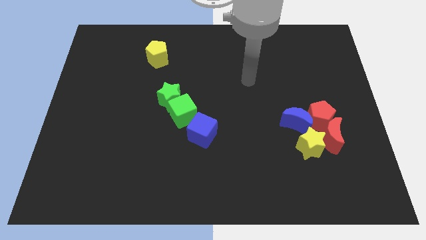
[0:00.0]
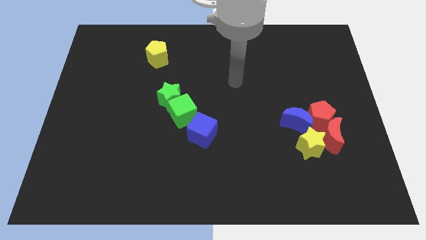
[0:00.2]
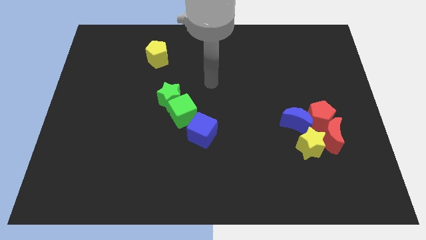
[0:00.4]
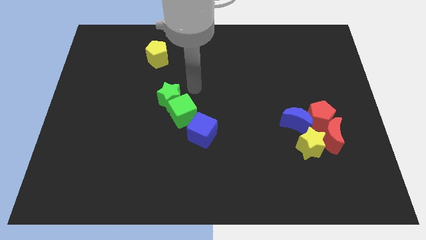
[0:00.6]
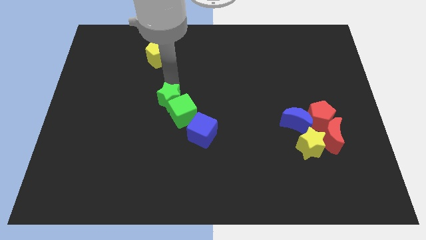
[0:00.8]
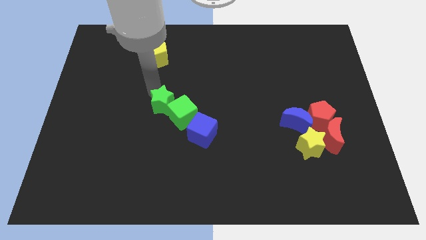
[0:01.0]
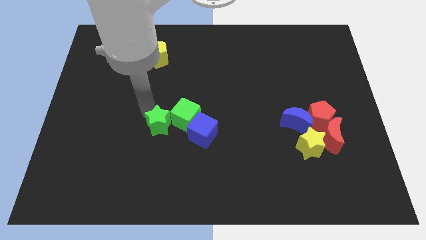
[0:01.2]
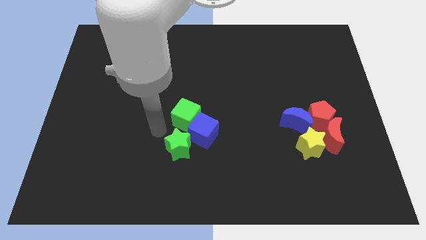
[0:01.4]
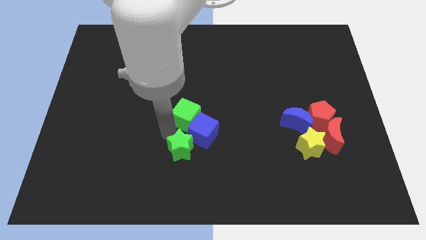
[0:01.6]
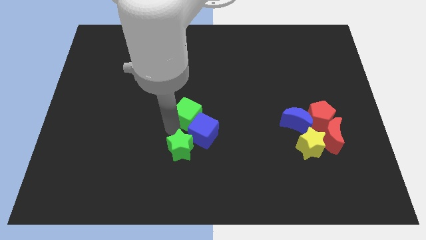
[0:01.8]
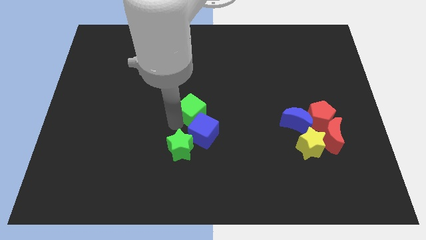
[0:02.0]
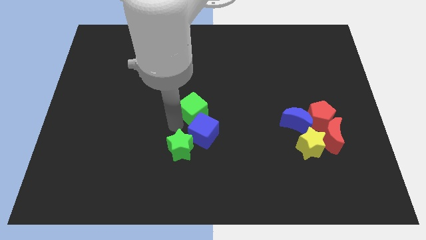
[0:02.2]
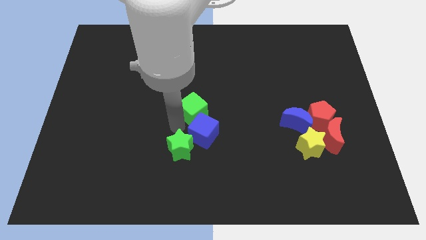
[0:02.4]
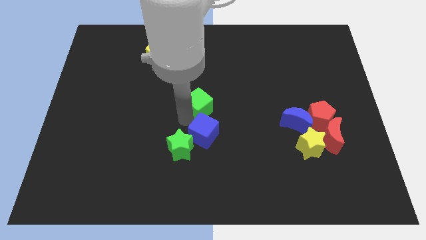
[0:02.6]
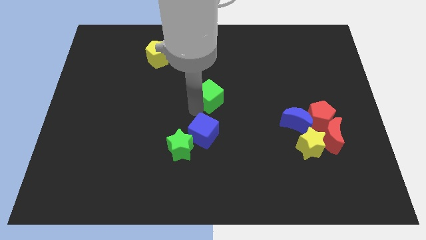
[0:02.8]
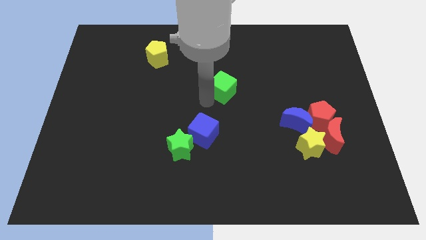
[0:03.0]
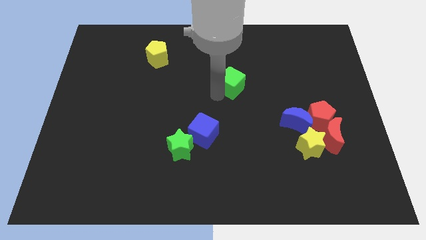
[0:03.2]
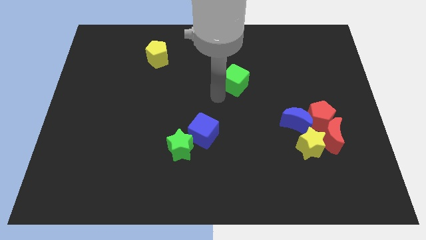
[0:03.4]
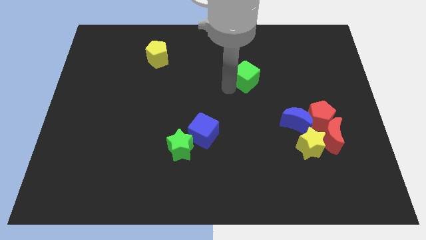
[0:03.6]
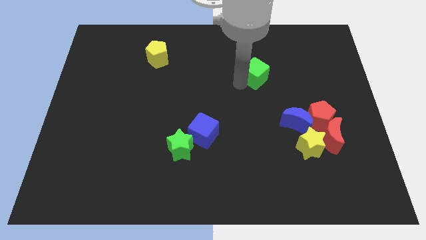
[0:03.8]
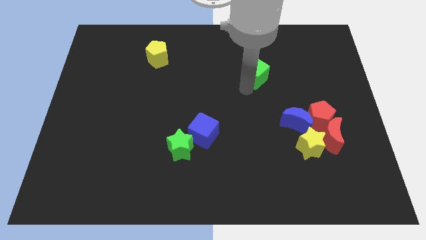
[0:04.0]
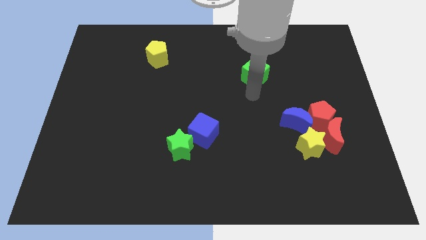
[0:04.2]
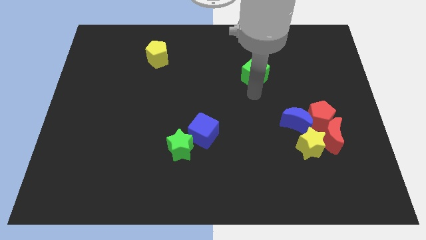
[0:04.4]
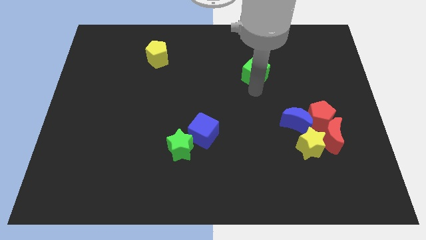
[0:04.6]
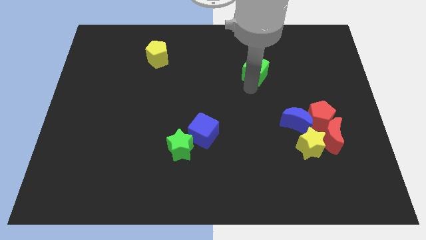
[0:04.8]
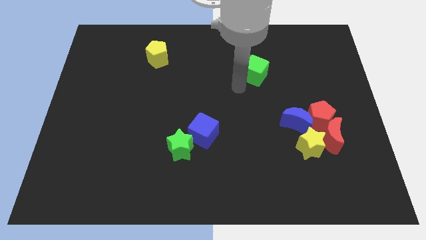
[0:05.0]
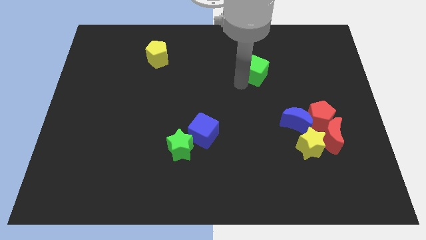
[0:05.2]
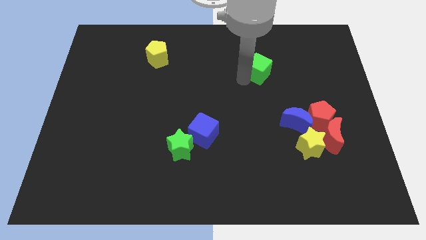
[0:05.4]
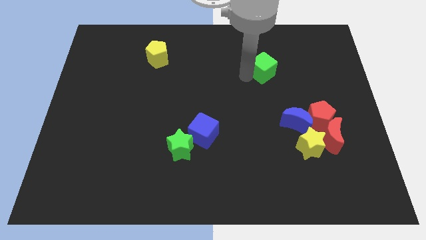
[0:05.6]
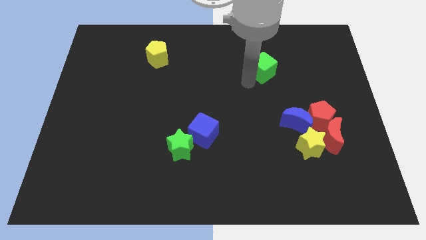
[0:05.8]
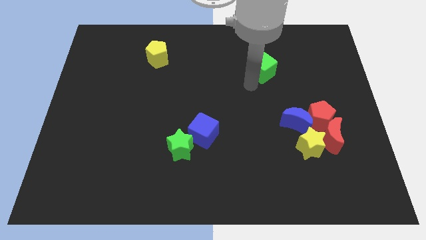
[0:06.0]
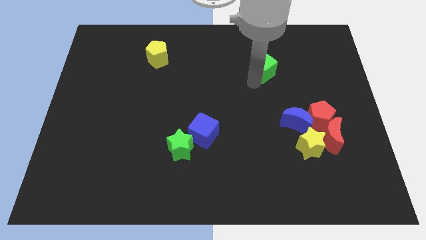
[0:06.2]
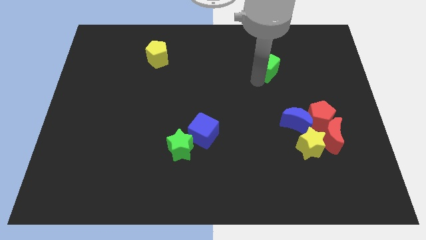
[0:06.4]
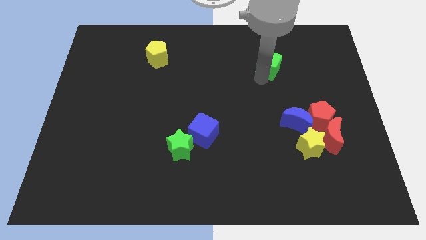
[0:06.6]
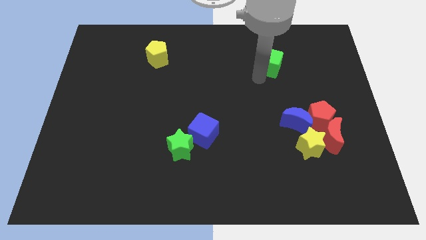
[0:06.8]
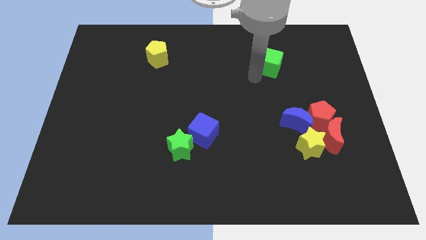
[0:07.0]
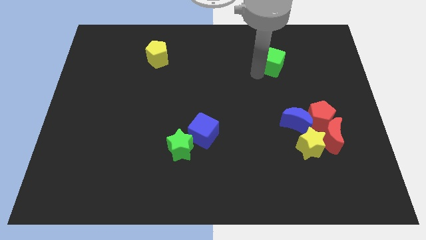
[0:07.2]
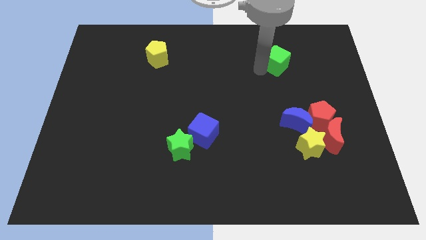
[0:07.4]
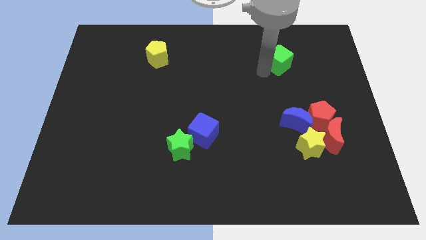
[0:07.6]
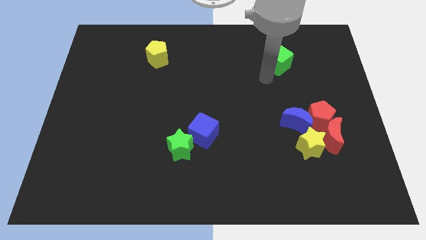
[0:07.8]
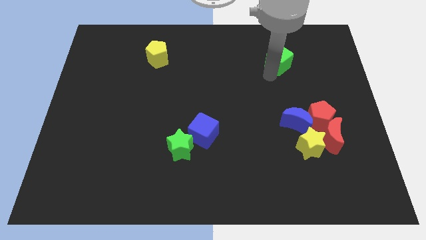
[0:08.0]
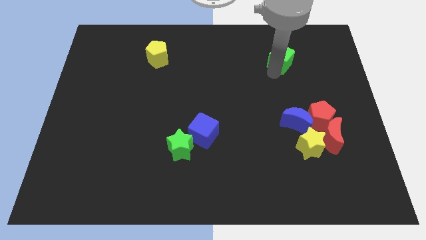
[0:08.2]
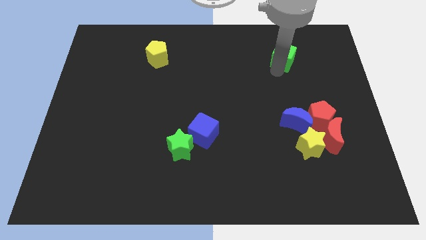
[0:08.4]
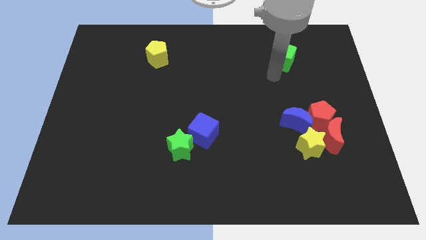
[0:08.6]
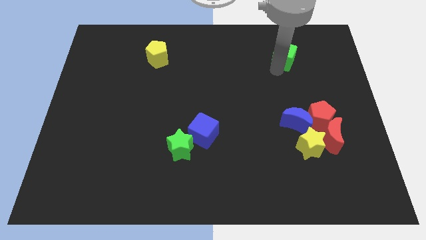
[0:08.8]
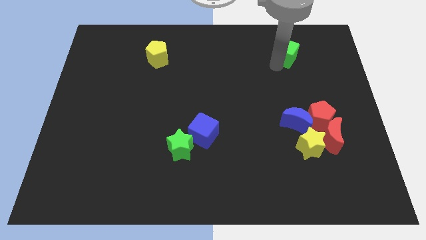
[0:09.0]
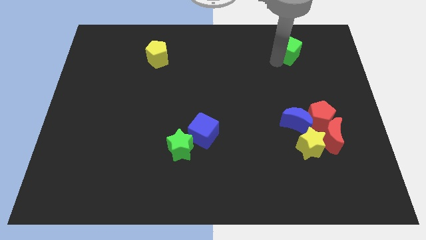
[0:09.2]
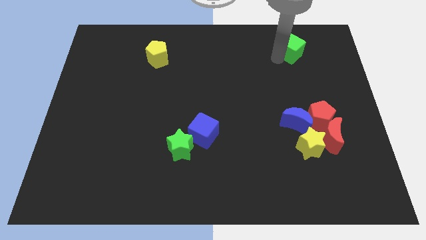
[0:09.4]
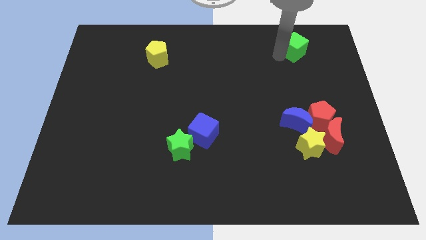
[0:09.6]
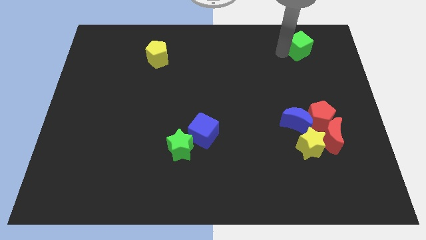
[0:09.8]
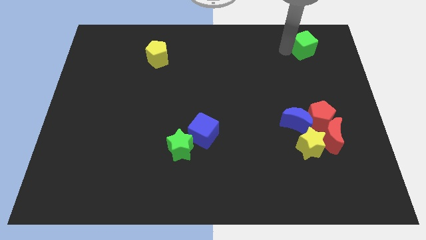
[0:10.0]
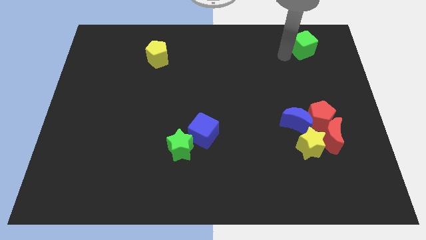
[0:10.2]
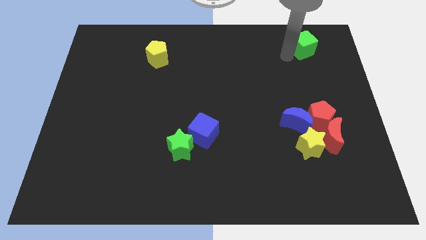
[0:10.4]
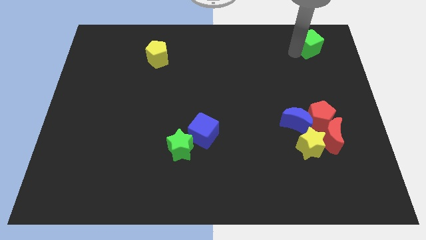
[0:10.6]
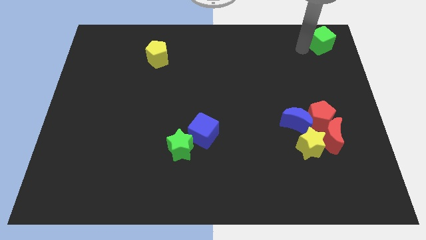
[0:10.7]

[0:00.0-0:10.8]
put the green cube to the top right

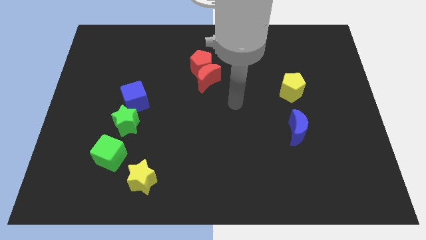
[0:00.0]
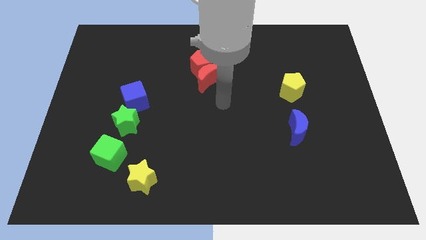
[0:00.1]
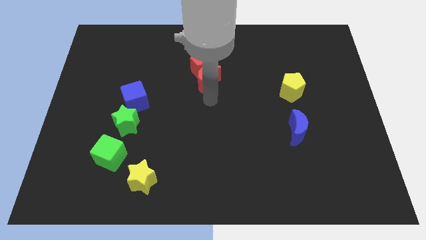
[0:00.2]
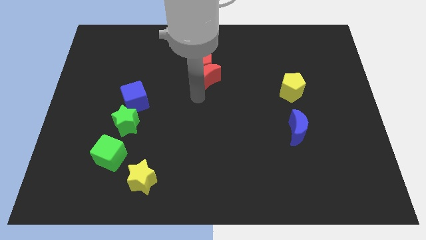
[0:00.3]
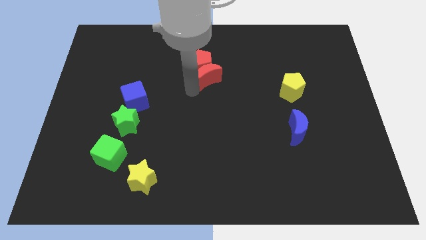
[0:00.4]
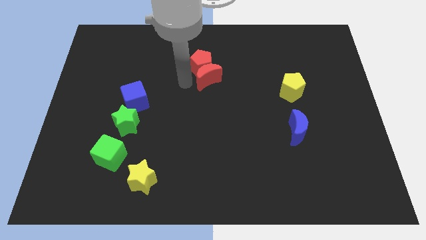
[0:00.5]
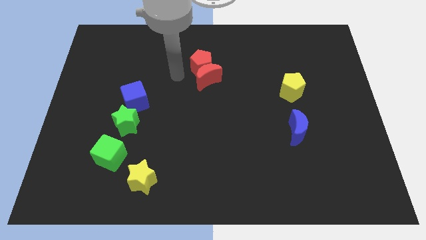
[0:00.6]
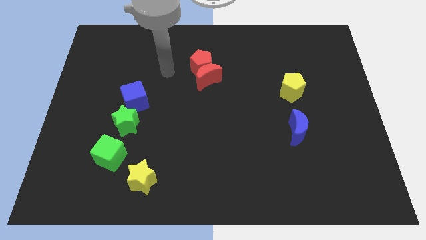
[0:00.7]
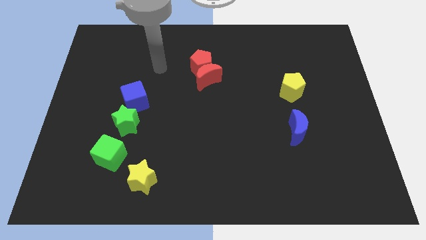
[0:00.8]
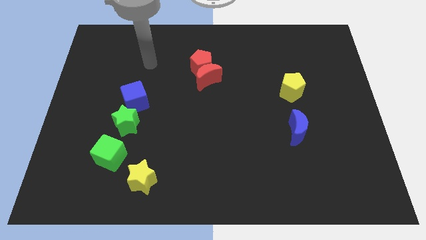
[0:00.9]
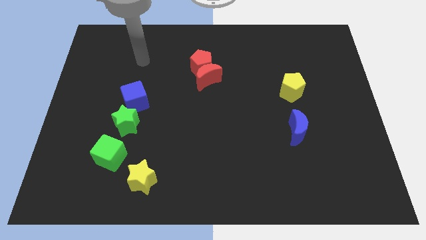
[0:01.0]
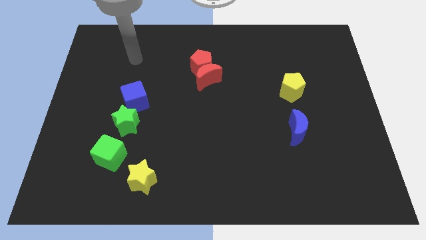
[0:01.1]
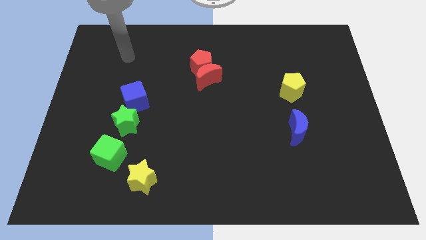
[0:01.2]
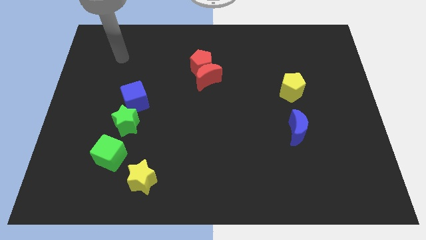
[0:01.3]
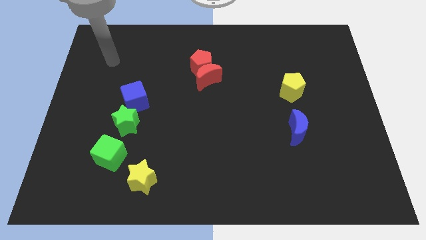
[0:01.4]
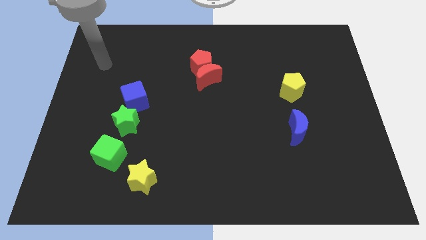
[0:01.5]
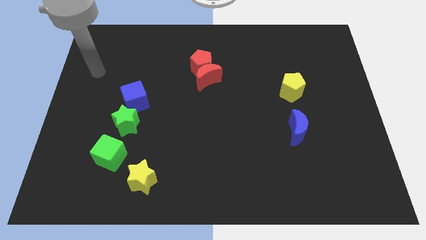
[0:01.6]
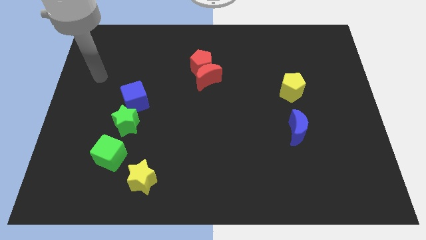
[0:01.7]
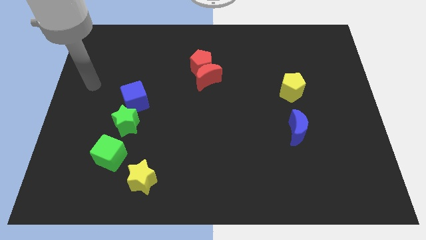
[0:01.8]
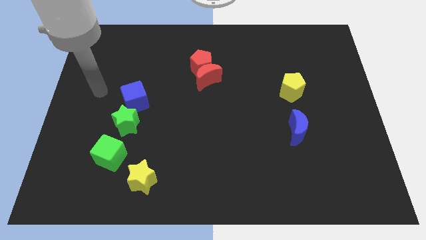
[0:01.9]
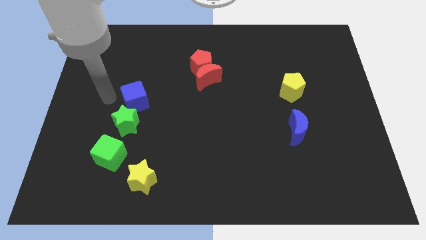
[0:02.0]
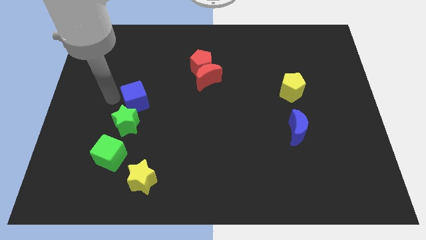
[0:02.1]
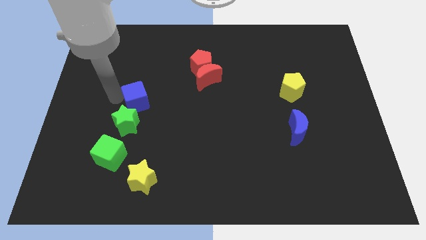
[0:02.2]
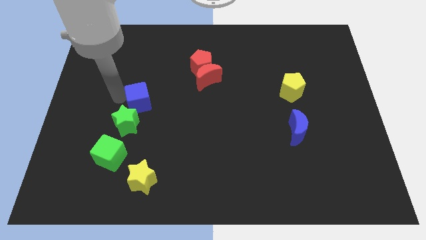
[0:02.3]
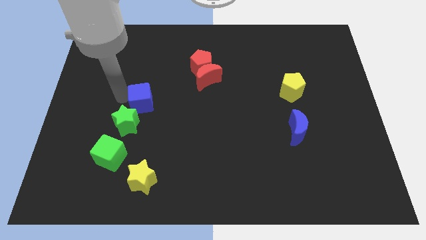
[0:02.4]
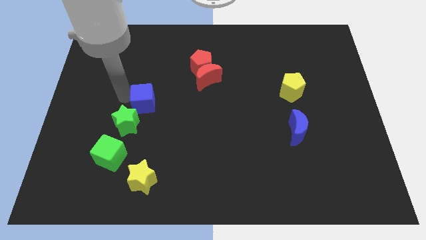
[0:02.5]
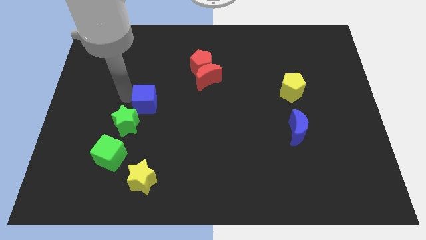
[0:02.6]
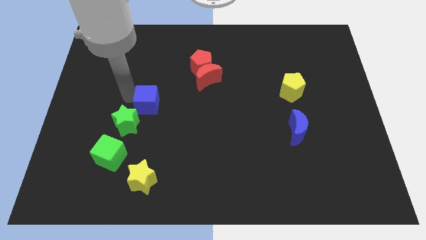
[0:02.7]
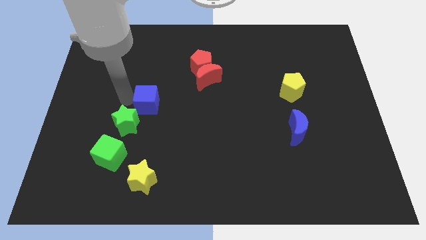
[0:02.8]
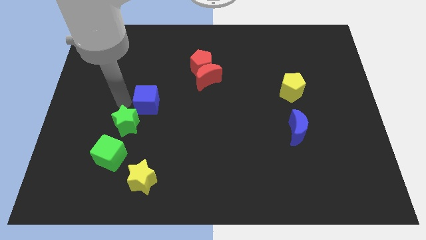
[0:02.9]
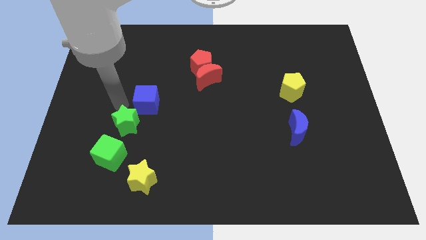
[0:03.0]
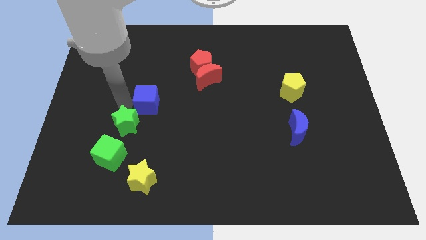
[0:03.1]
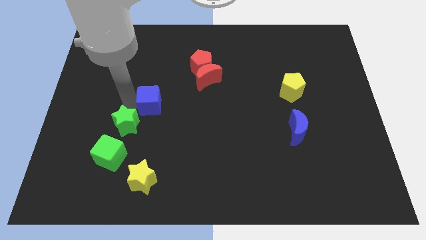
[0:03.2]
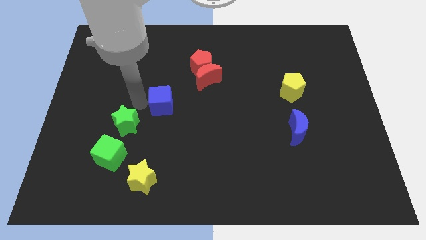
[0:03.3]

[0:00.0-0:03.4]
slide the blue cube to the middle
